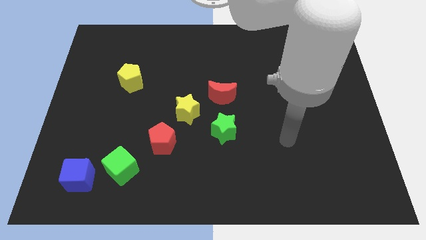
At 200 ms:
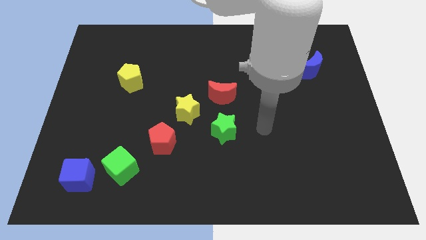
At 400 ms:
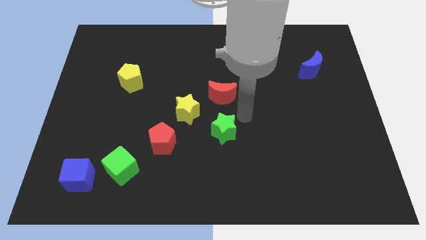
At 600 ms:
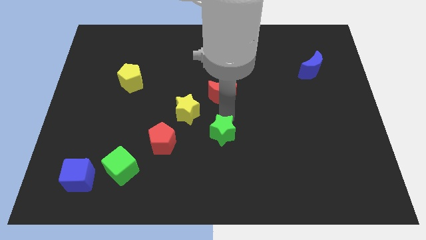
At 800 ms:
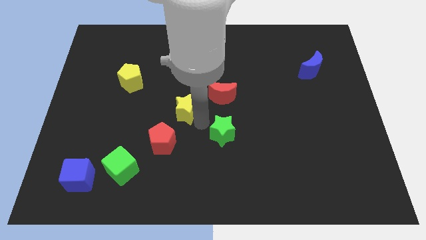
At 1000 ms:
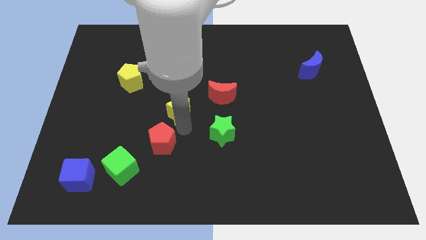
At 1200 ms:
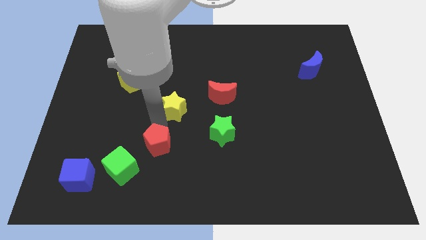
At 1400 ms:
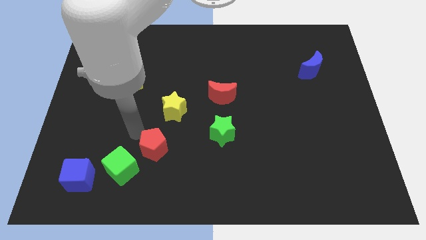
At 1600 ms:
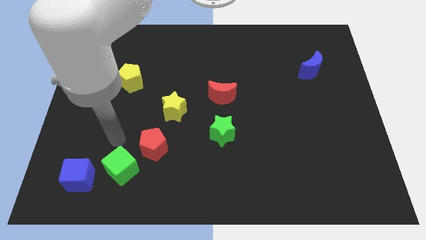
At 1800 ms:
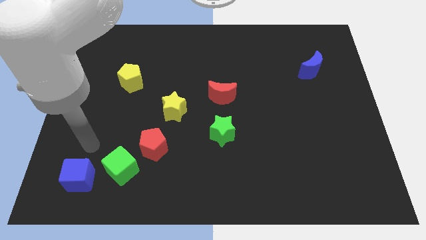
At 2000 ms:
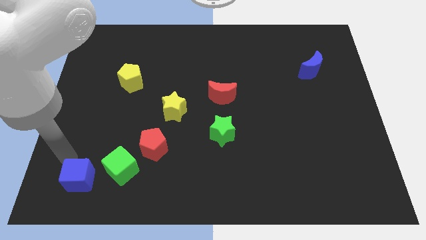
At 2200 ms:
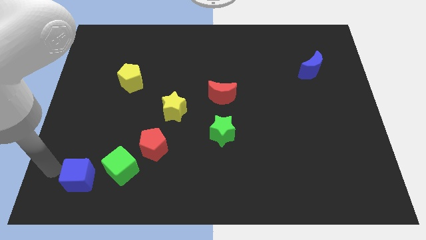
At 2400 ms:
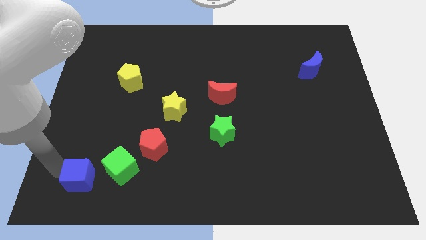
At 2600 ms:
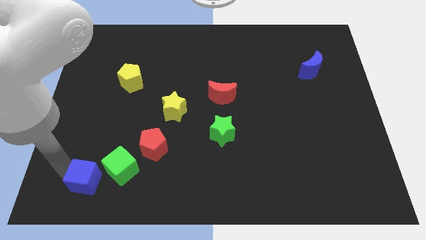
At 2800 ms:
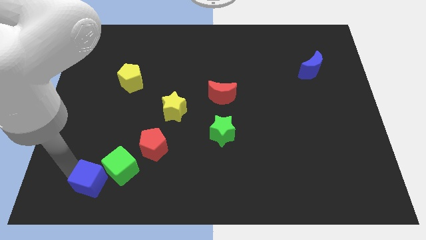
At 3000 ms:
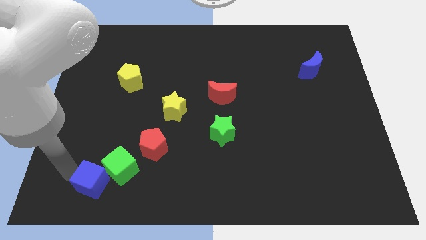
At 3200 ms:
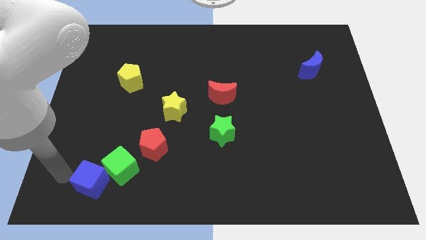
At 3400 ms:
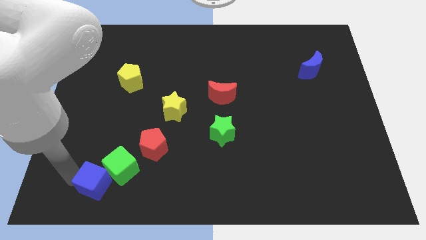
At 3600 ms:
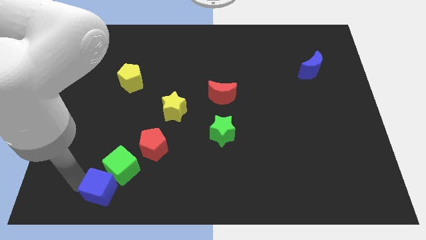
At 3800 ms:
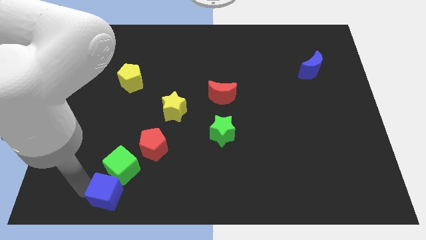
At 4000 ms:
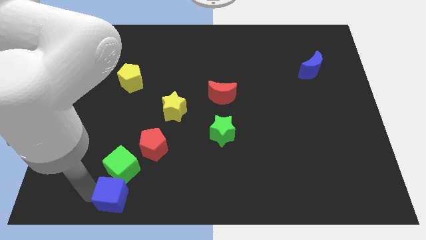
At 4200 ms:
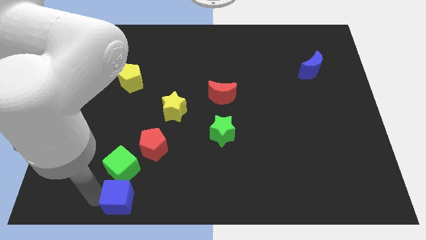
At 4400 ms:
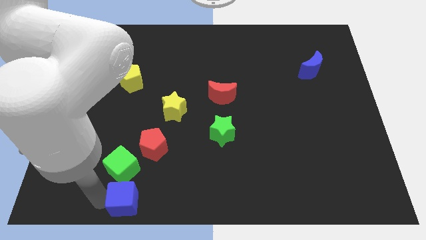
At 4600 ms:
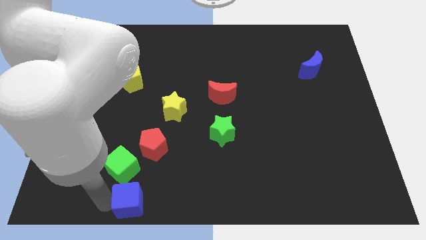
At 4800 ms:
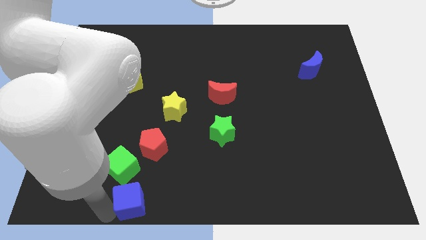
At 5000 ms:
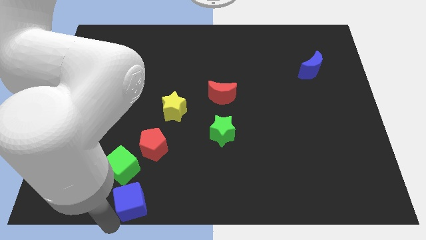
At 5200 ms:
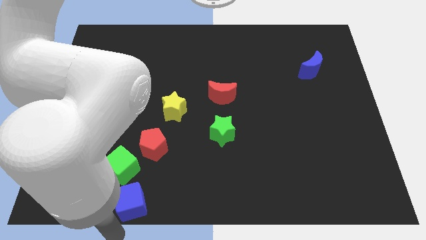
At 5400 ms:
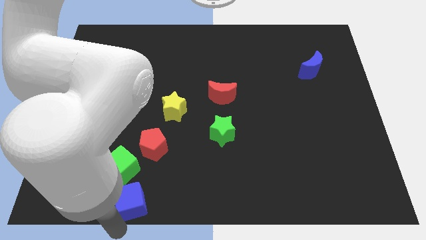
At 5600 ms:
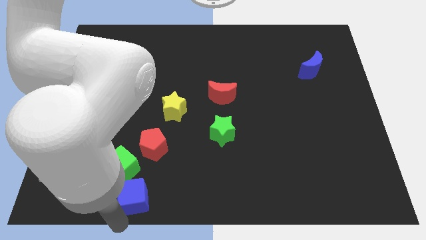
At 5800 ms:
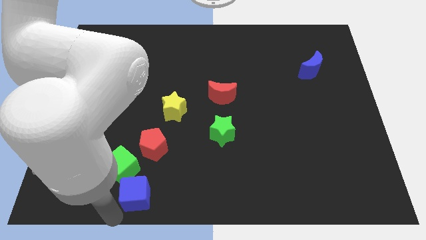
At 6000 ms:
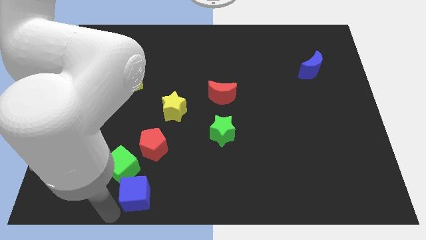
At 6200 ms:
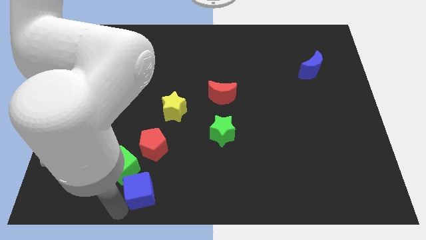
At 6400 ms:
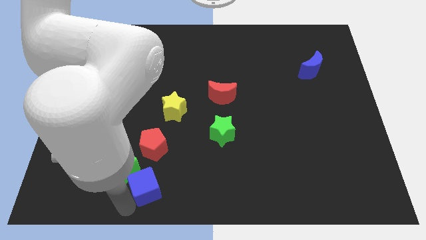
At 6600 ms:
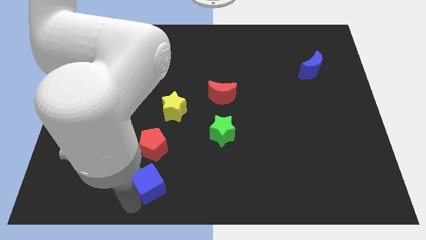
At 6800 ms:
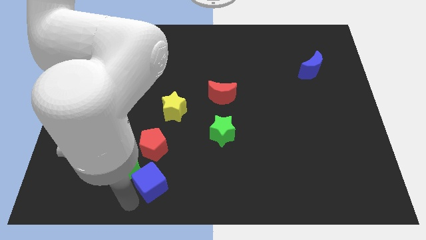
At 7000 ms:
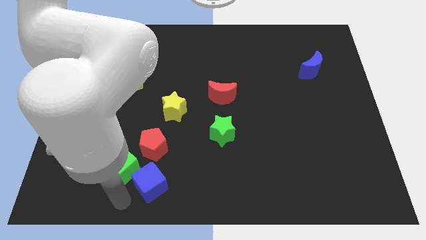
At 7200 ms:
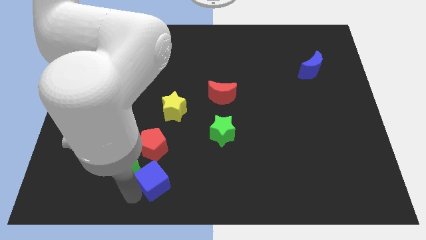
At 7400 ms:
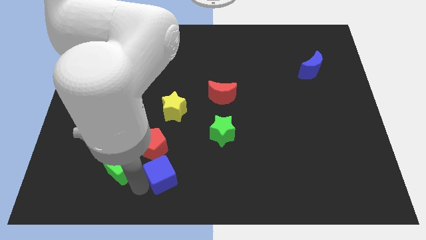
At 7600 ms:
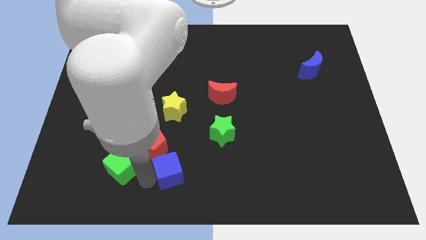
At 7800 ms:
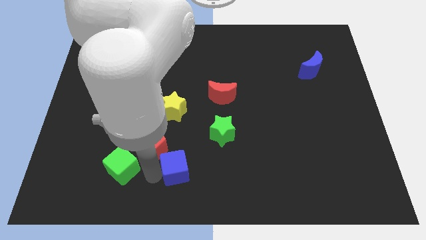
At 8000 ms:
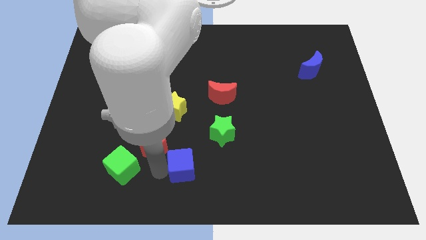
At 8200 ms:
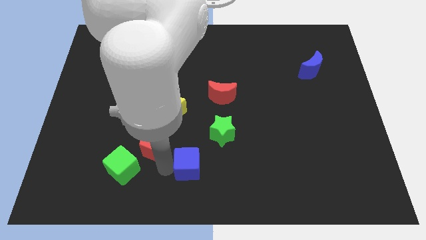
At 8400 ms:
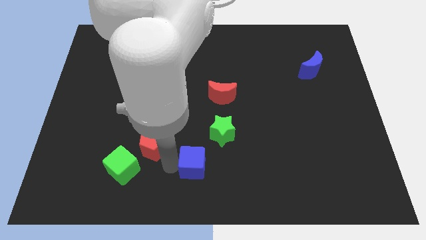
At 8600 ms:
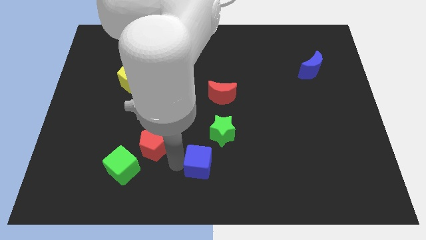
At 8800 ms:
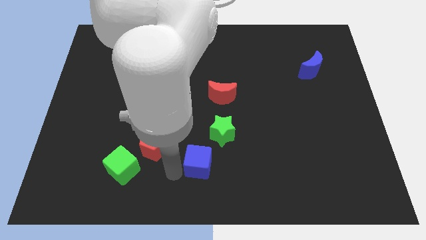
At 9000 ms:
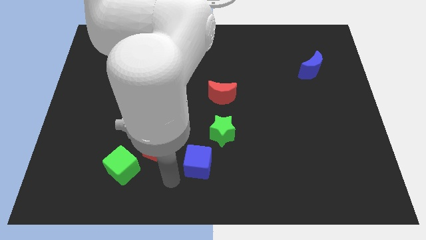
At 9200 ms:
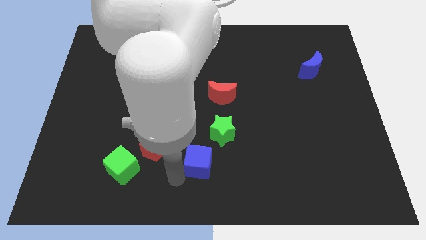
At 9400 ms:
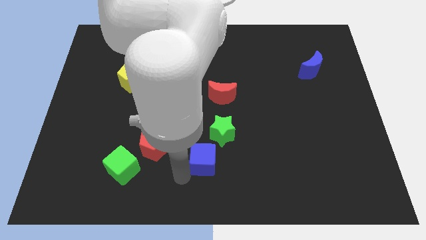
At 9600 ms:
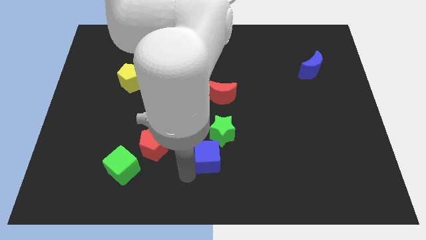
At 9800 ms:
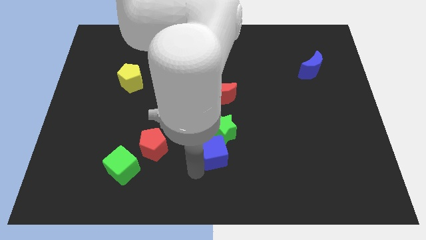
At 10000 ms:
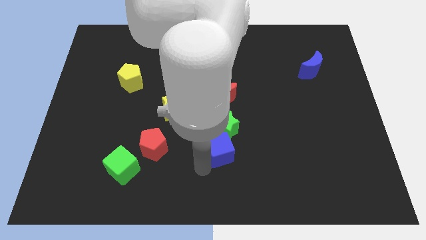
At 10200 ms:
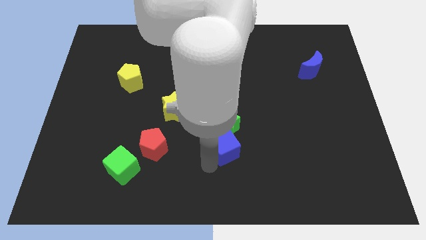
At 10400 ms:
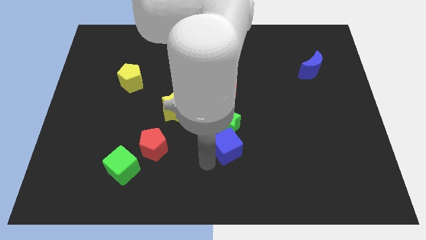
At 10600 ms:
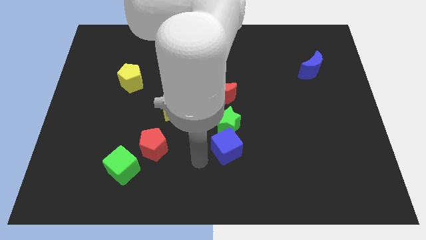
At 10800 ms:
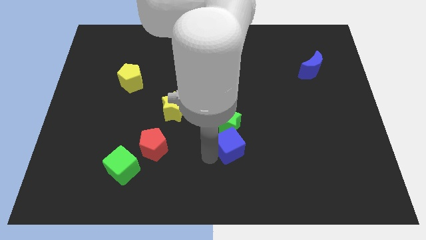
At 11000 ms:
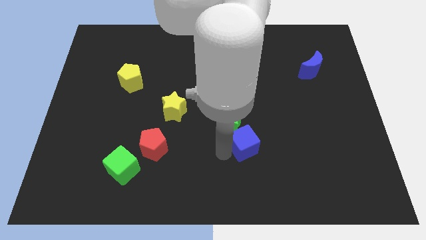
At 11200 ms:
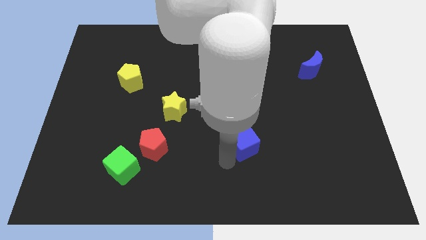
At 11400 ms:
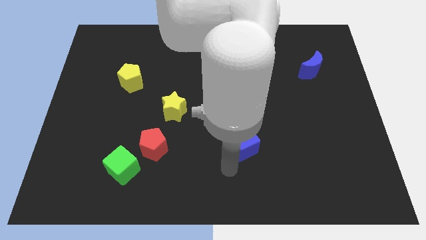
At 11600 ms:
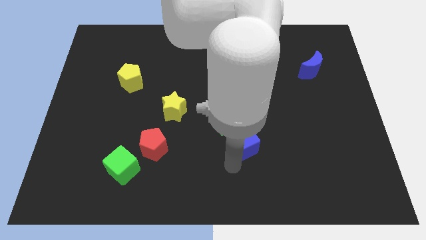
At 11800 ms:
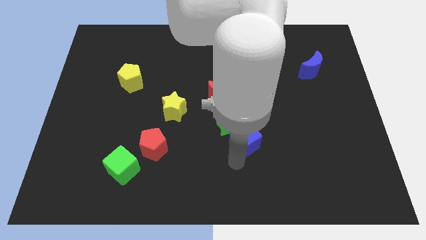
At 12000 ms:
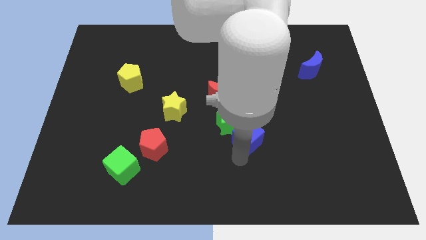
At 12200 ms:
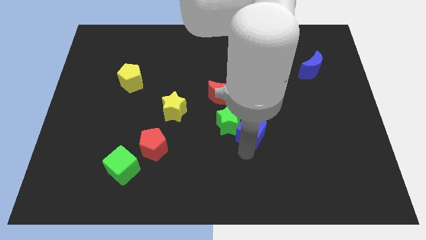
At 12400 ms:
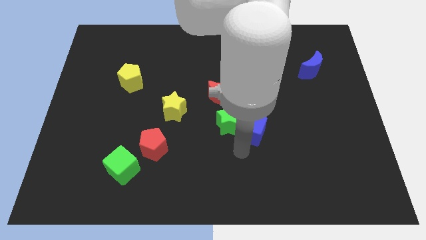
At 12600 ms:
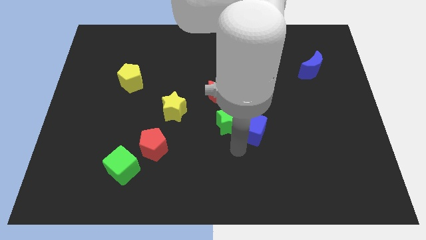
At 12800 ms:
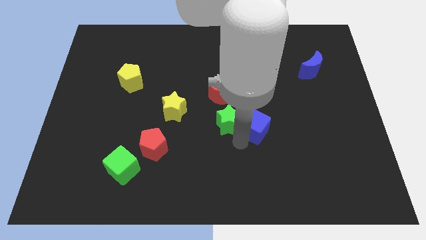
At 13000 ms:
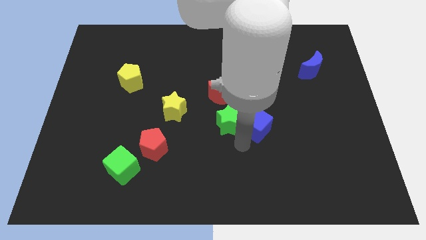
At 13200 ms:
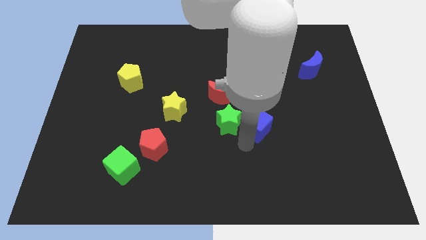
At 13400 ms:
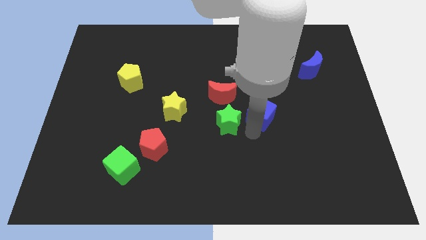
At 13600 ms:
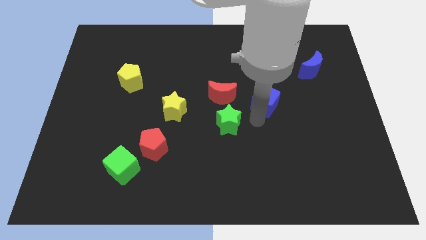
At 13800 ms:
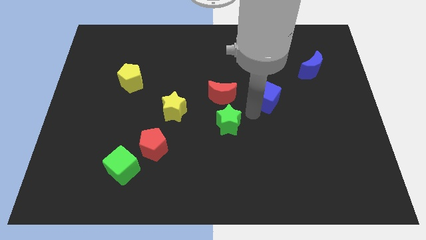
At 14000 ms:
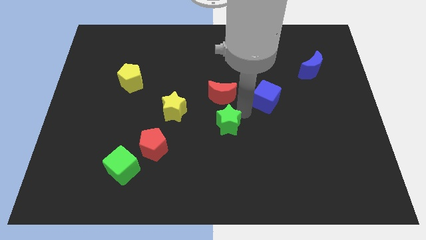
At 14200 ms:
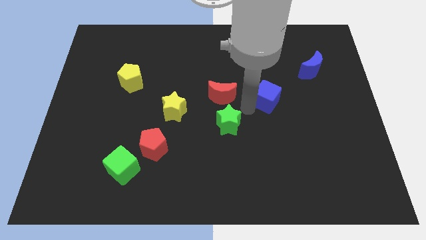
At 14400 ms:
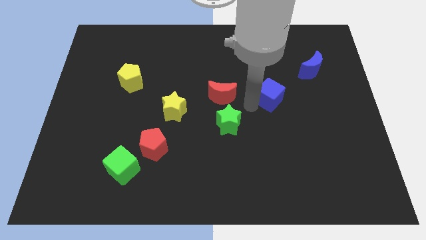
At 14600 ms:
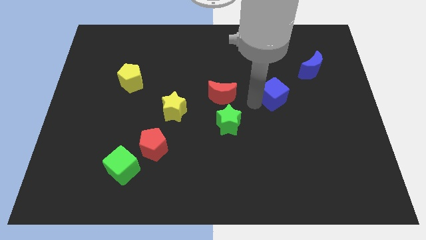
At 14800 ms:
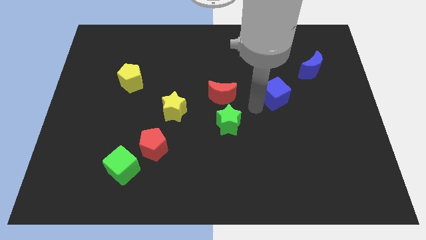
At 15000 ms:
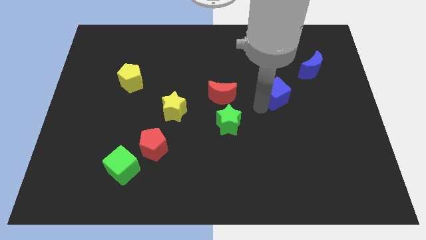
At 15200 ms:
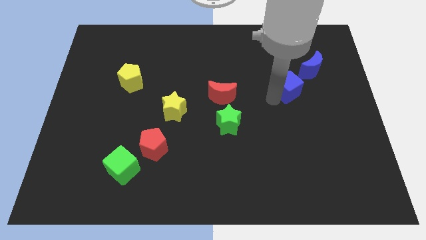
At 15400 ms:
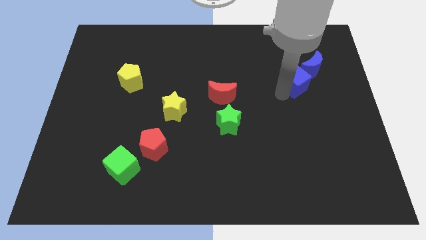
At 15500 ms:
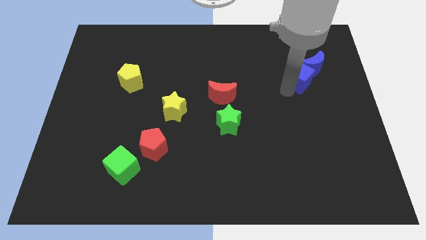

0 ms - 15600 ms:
slide the blue cube next to the blue moon

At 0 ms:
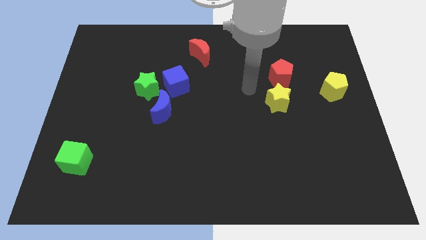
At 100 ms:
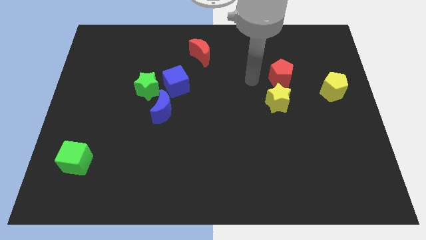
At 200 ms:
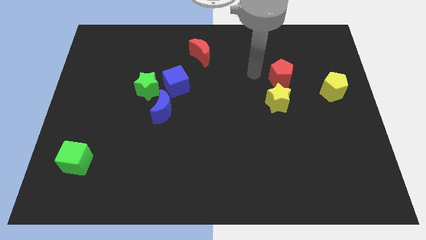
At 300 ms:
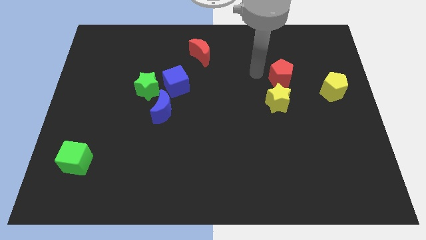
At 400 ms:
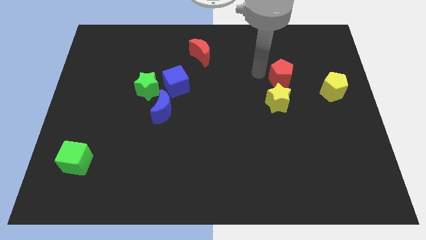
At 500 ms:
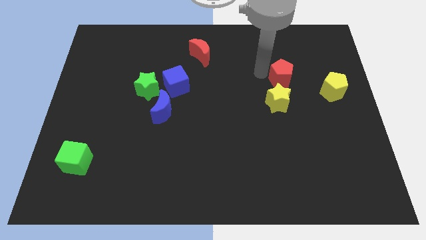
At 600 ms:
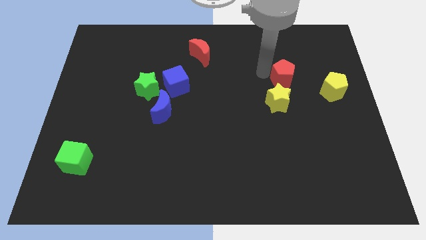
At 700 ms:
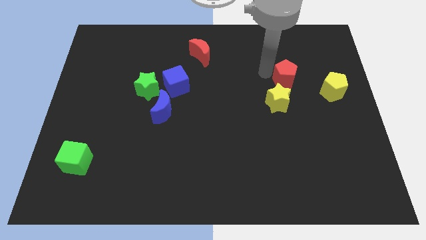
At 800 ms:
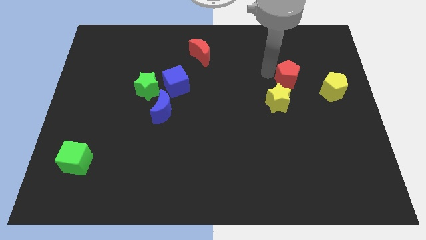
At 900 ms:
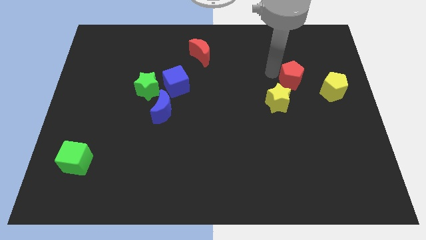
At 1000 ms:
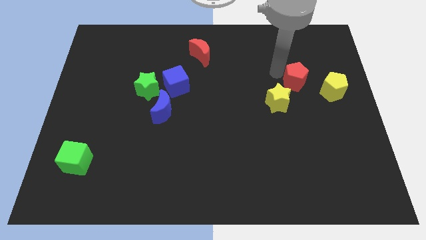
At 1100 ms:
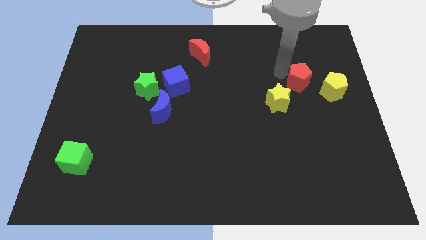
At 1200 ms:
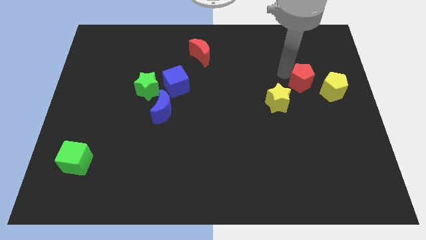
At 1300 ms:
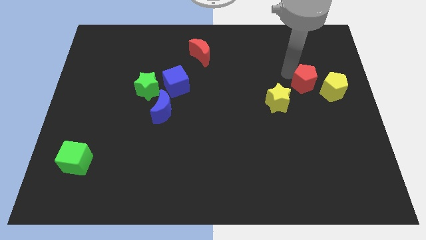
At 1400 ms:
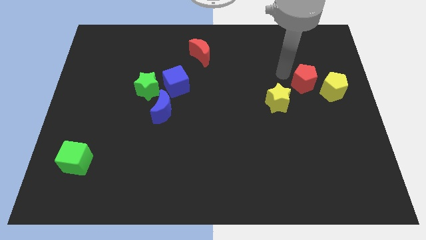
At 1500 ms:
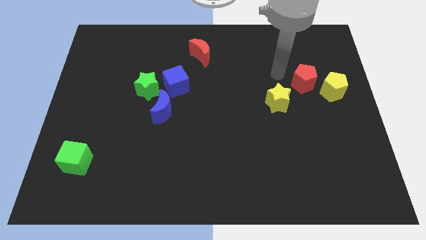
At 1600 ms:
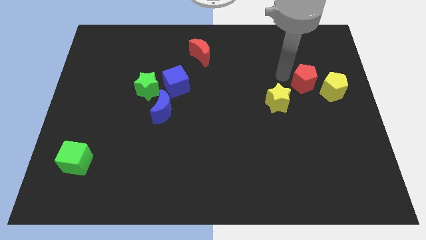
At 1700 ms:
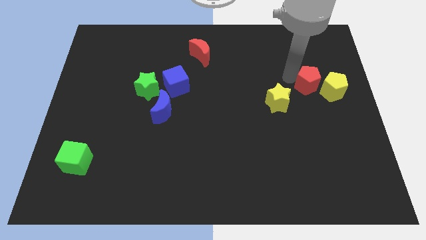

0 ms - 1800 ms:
move the red pentagon to the yellow pentagon
